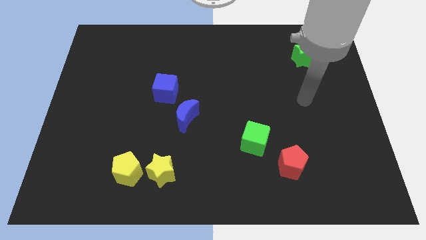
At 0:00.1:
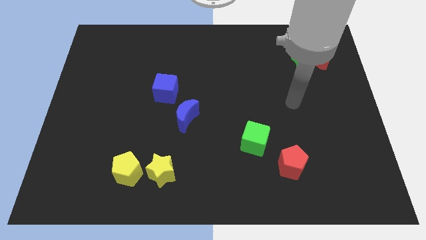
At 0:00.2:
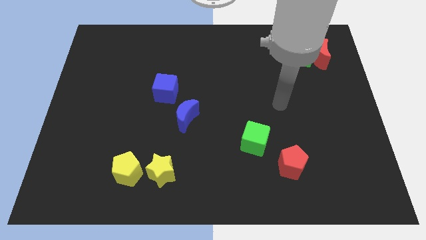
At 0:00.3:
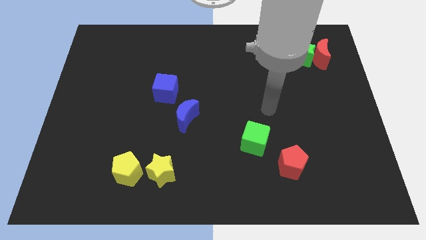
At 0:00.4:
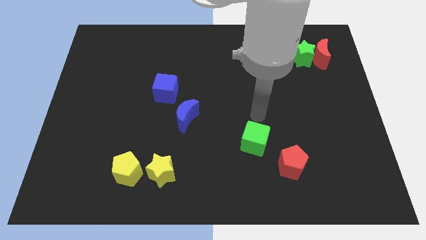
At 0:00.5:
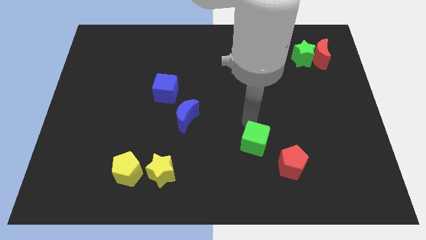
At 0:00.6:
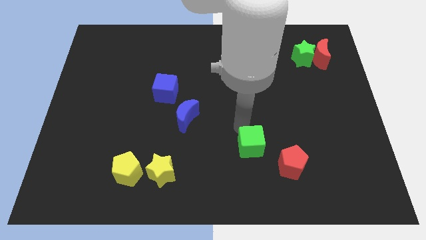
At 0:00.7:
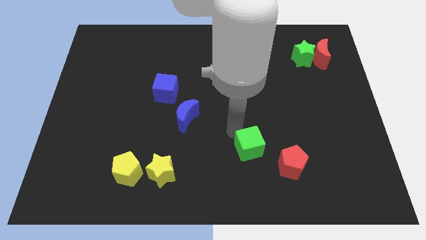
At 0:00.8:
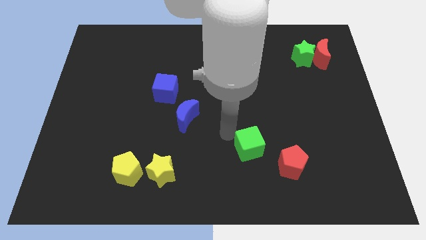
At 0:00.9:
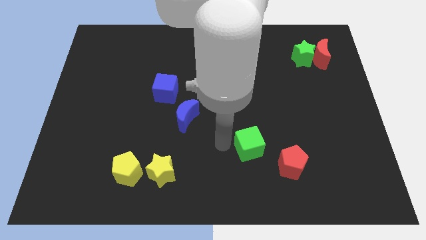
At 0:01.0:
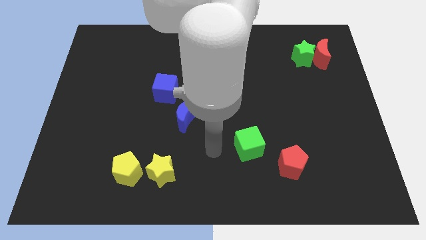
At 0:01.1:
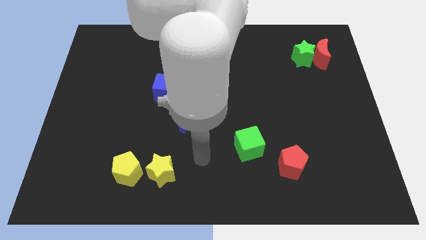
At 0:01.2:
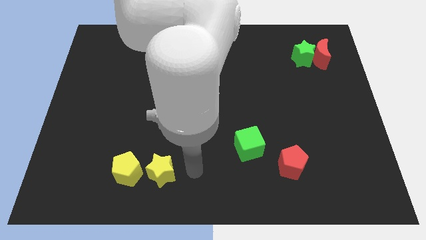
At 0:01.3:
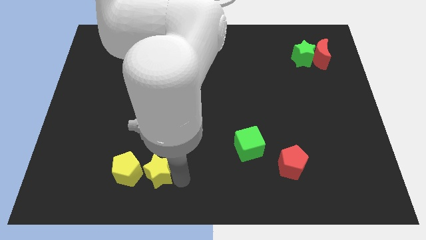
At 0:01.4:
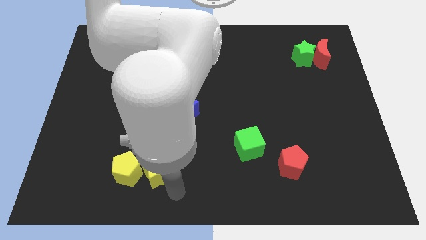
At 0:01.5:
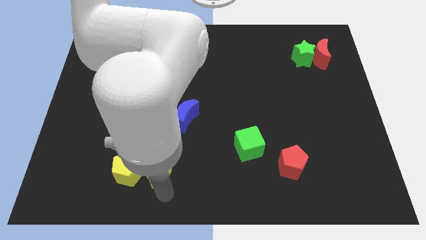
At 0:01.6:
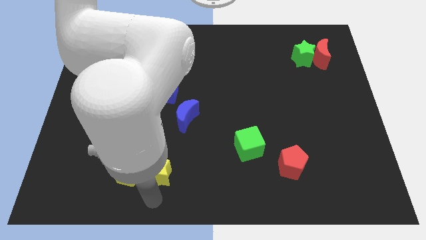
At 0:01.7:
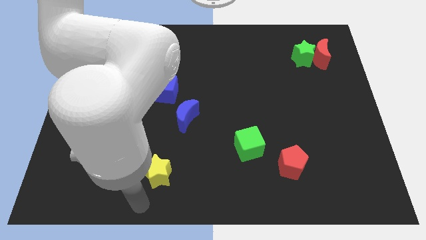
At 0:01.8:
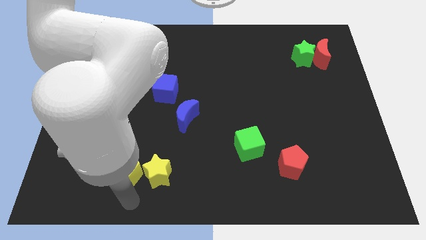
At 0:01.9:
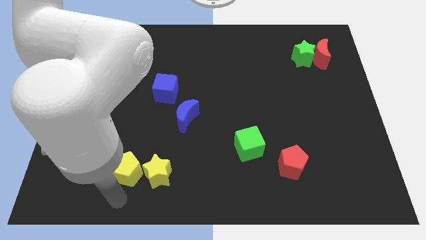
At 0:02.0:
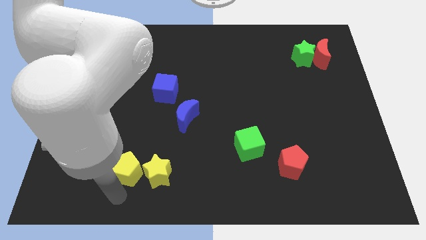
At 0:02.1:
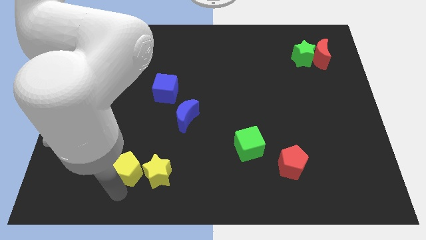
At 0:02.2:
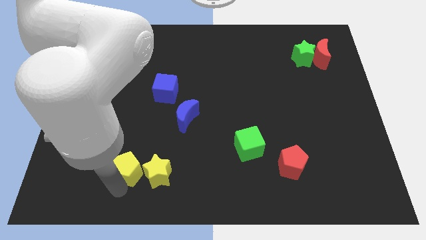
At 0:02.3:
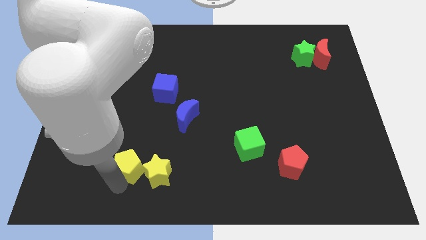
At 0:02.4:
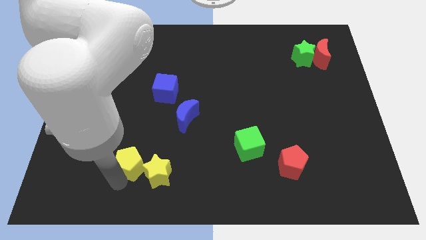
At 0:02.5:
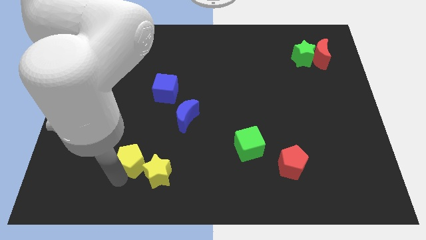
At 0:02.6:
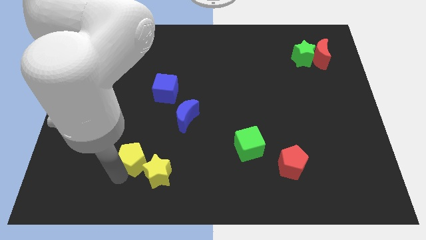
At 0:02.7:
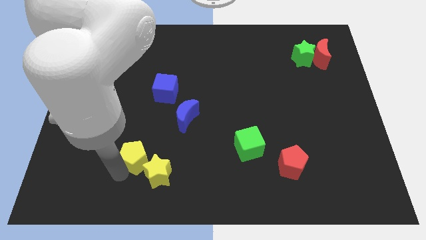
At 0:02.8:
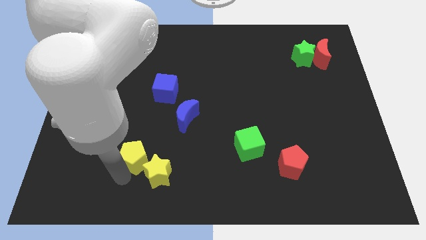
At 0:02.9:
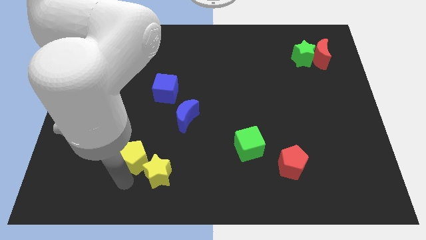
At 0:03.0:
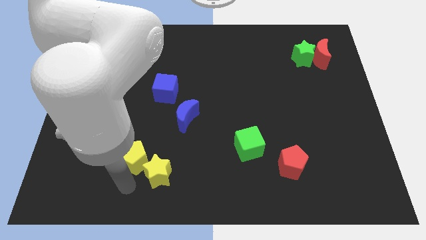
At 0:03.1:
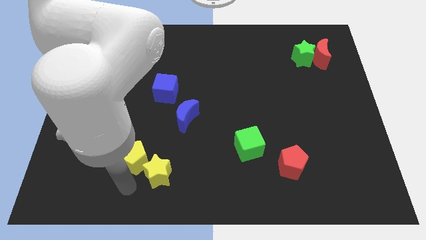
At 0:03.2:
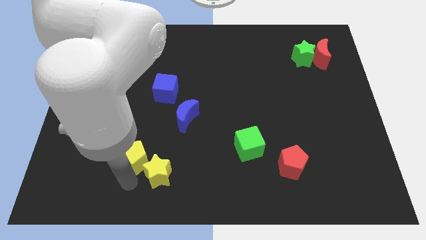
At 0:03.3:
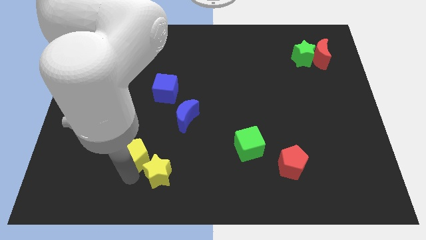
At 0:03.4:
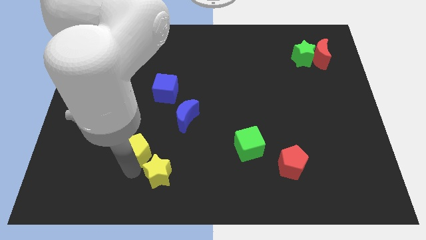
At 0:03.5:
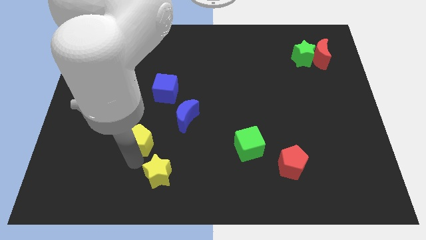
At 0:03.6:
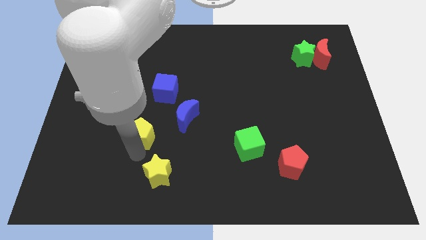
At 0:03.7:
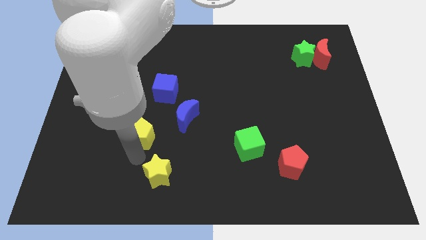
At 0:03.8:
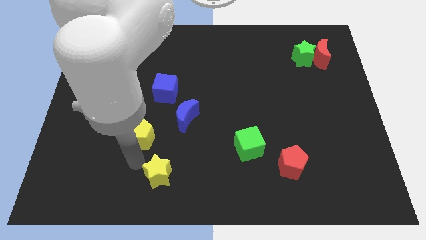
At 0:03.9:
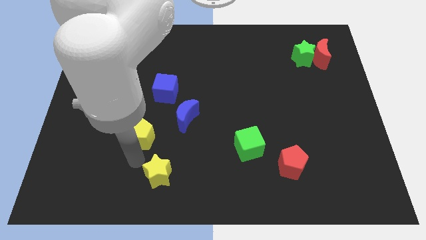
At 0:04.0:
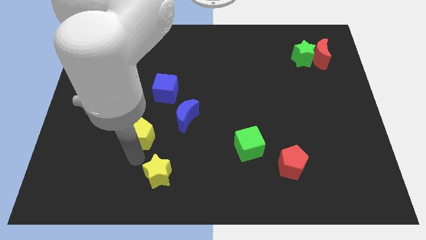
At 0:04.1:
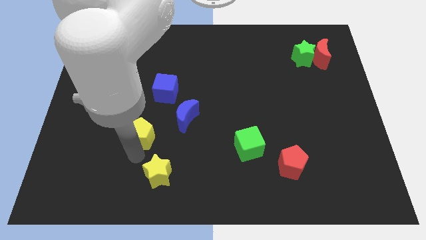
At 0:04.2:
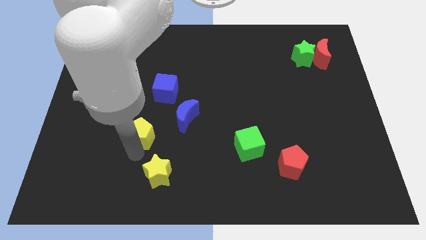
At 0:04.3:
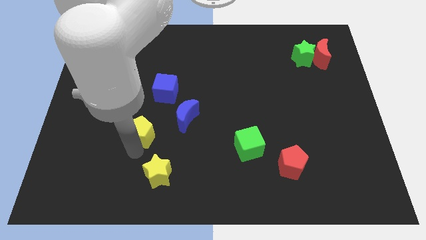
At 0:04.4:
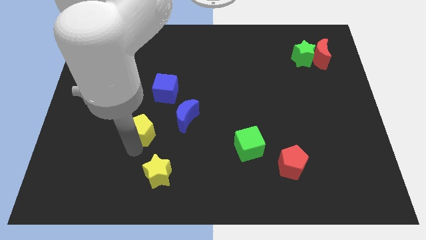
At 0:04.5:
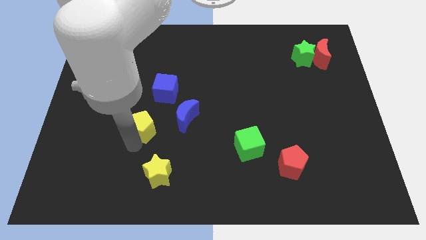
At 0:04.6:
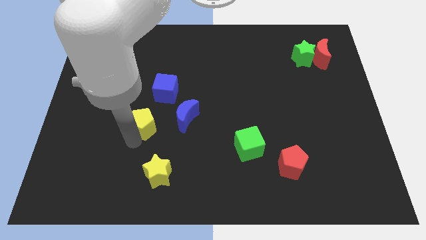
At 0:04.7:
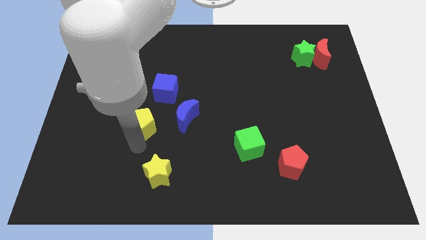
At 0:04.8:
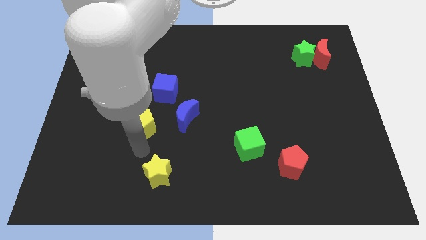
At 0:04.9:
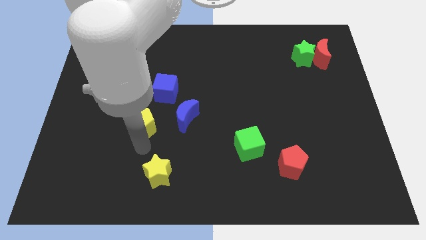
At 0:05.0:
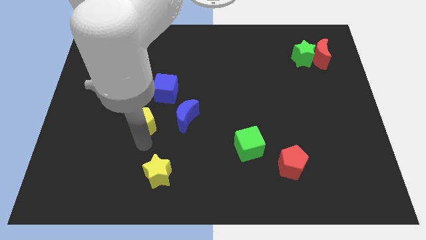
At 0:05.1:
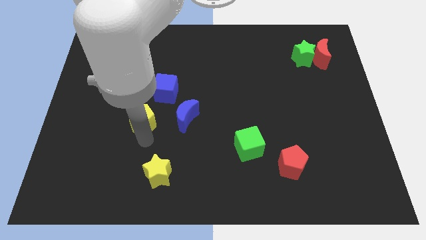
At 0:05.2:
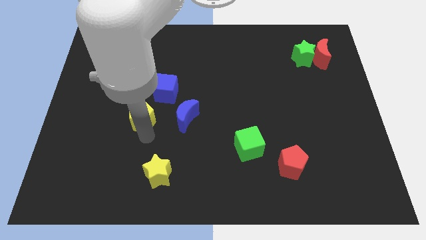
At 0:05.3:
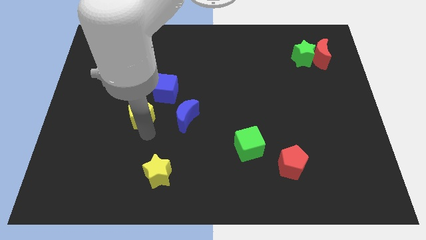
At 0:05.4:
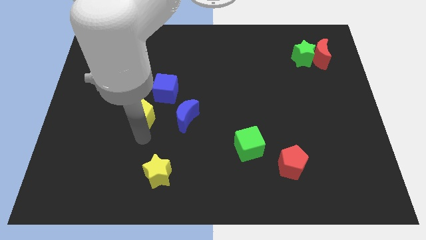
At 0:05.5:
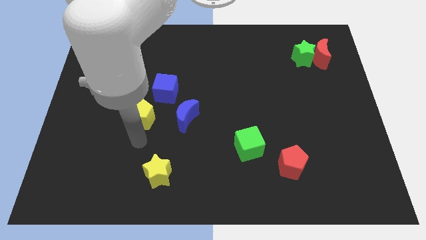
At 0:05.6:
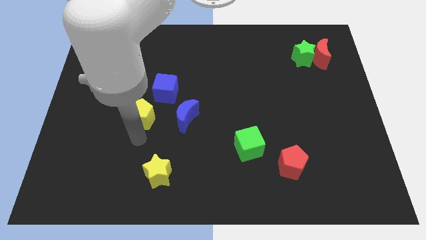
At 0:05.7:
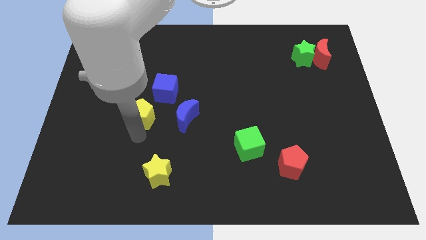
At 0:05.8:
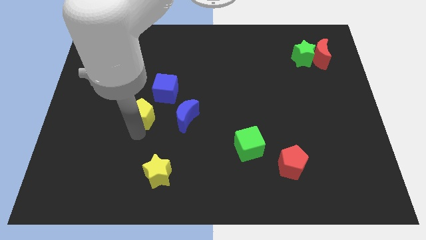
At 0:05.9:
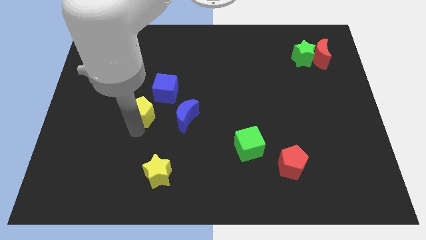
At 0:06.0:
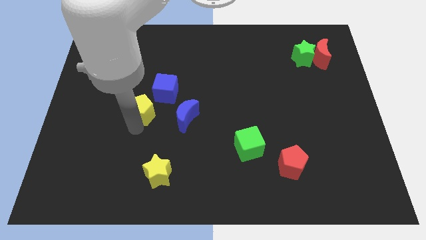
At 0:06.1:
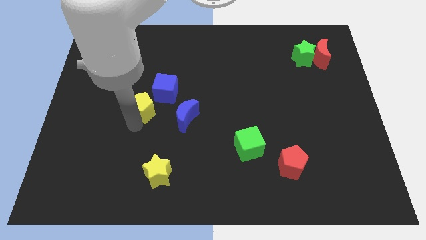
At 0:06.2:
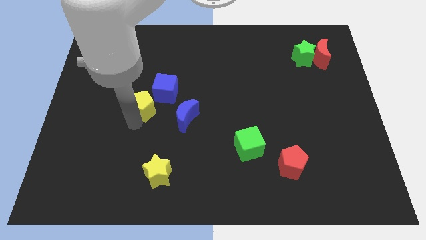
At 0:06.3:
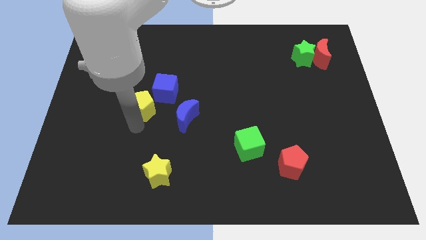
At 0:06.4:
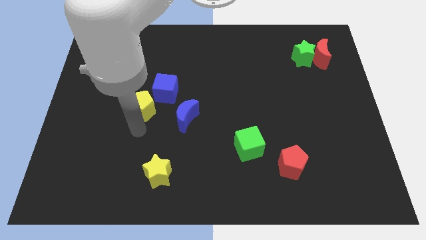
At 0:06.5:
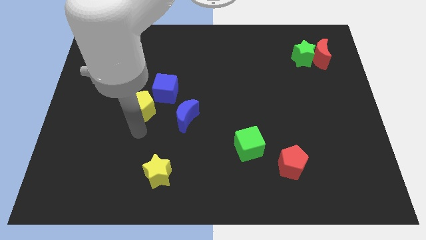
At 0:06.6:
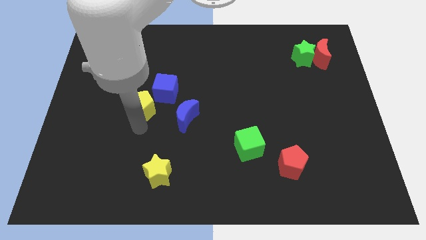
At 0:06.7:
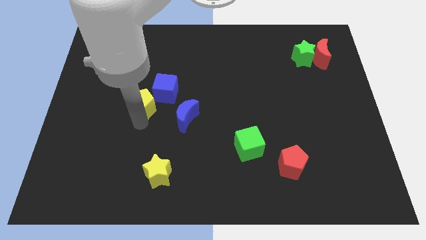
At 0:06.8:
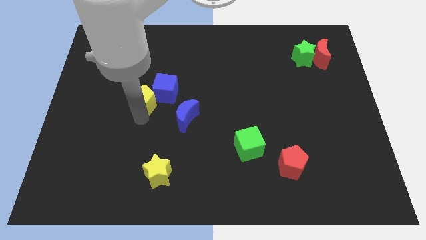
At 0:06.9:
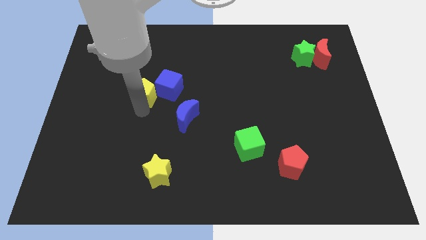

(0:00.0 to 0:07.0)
slide the yellow pentagon up

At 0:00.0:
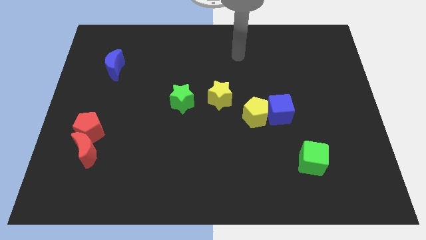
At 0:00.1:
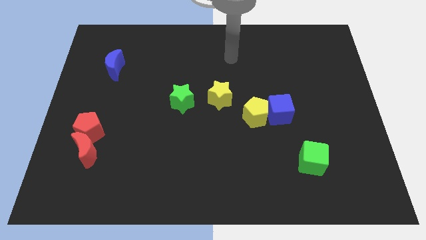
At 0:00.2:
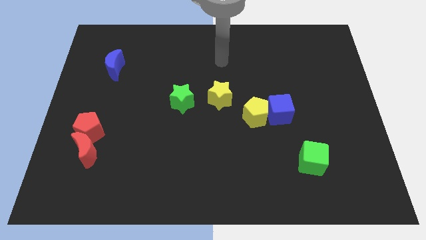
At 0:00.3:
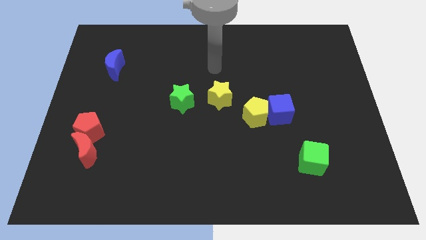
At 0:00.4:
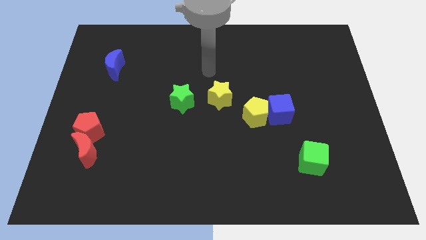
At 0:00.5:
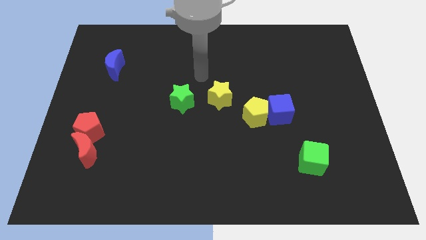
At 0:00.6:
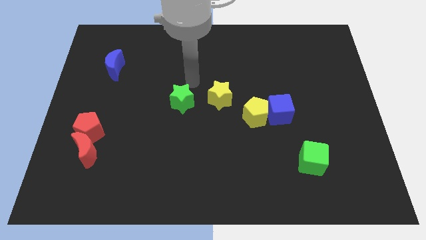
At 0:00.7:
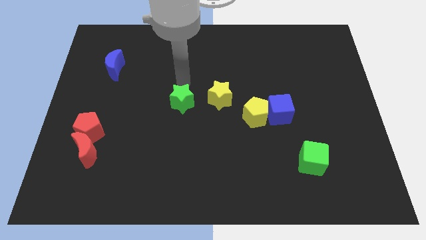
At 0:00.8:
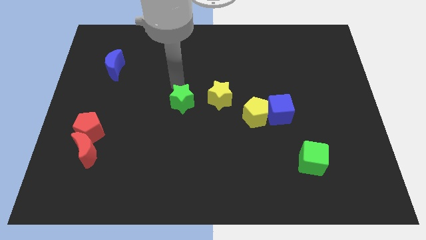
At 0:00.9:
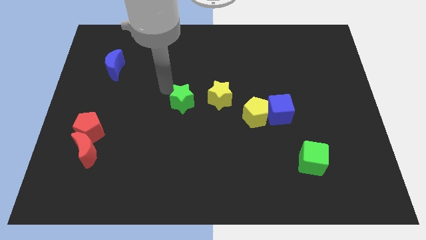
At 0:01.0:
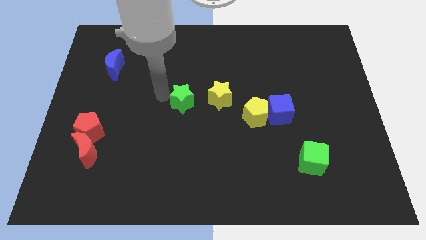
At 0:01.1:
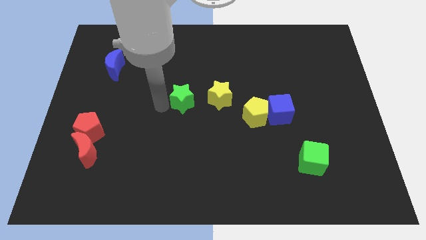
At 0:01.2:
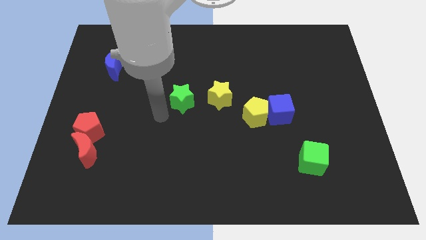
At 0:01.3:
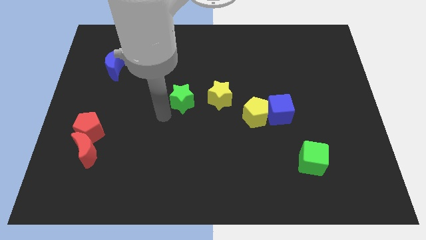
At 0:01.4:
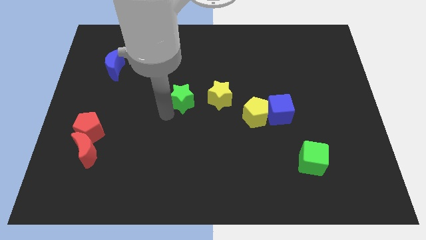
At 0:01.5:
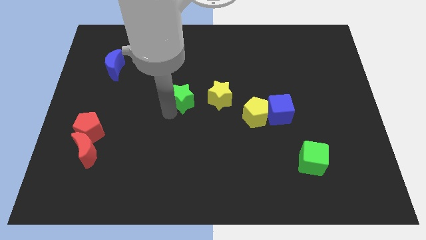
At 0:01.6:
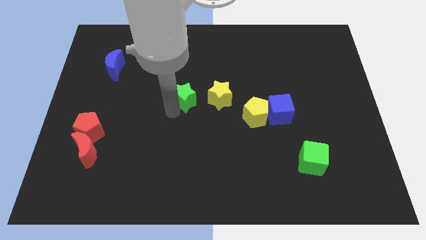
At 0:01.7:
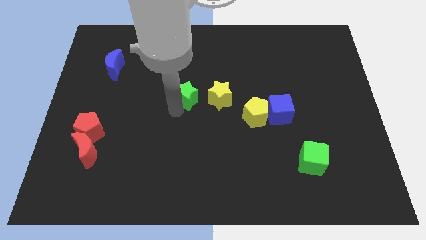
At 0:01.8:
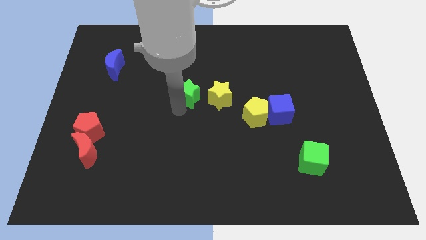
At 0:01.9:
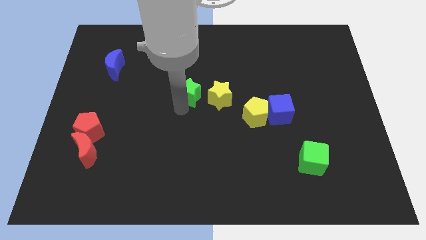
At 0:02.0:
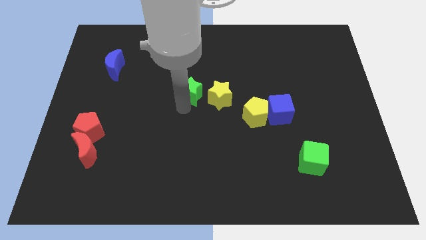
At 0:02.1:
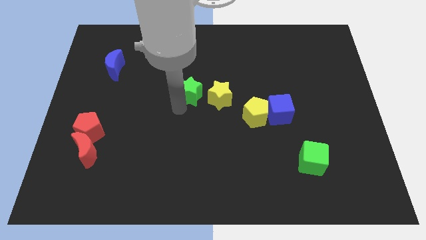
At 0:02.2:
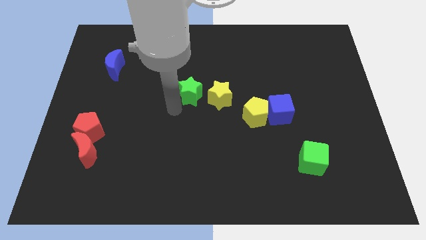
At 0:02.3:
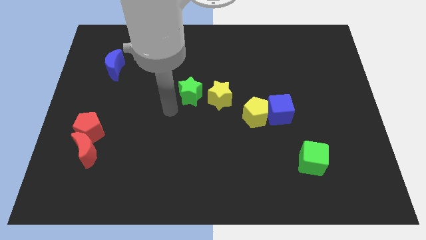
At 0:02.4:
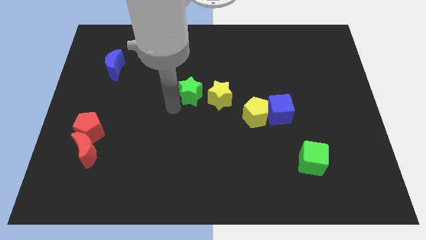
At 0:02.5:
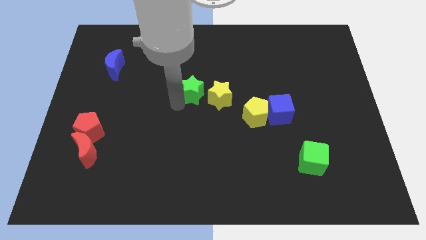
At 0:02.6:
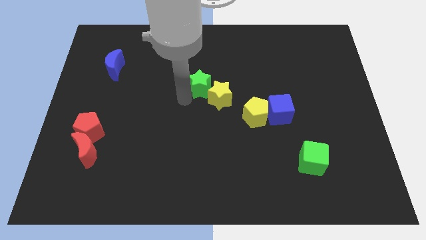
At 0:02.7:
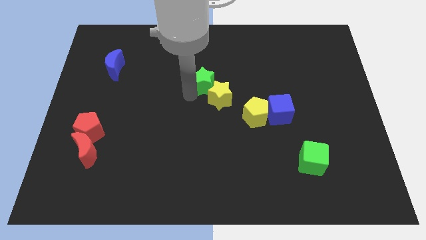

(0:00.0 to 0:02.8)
move the green star upwards and then to the right a little bit
